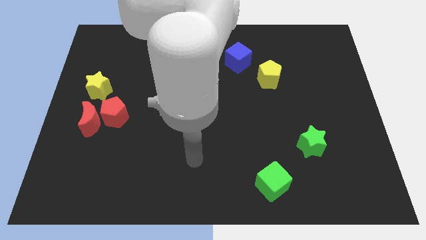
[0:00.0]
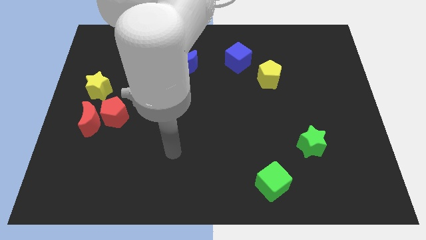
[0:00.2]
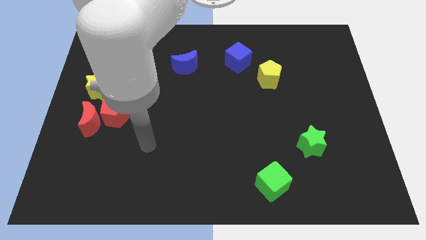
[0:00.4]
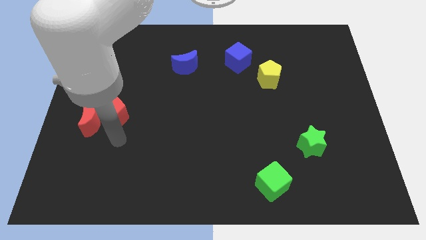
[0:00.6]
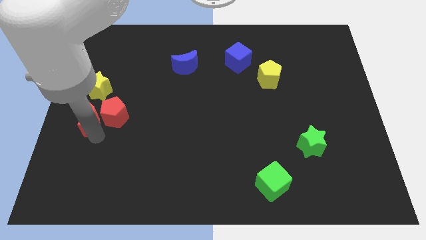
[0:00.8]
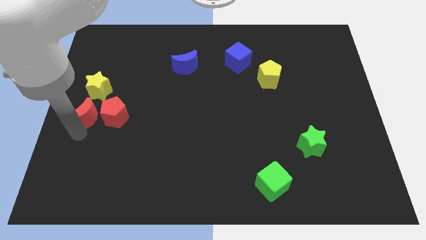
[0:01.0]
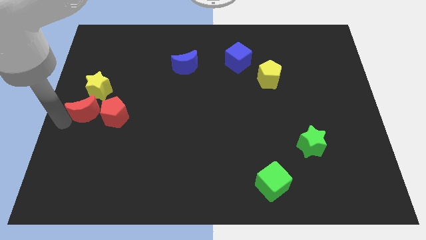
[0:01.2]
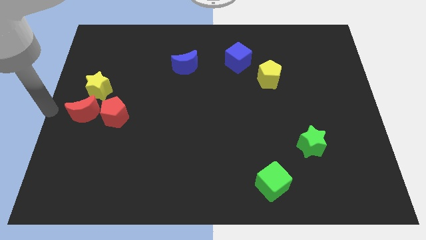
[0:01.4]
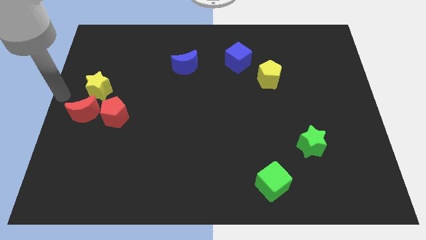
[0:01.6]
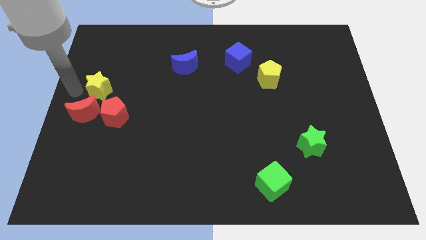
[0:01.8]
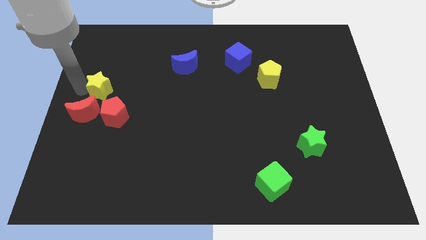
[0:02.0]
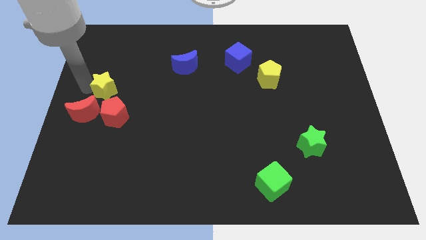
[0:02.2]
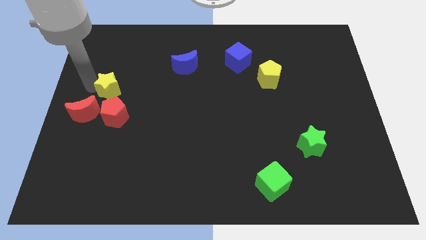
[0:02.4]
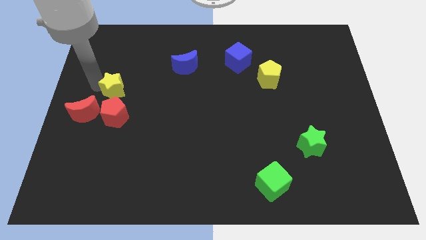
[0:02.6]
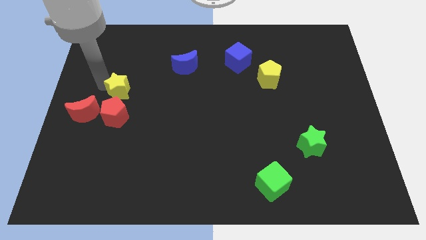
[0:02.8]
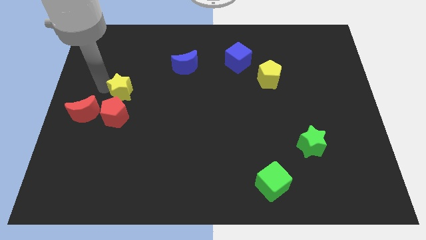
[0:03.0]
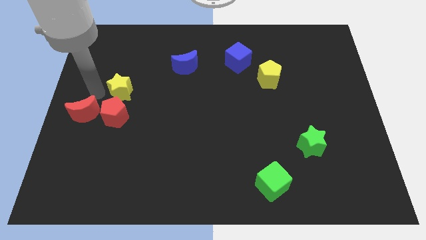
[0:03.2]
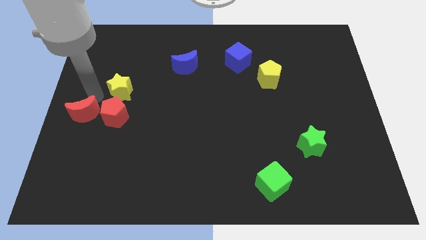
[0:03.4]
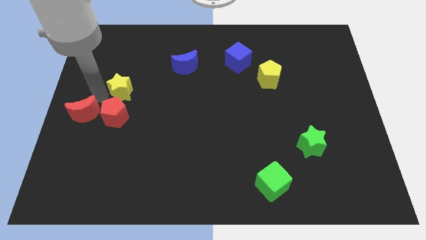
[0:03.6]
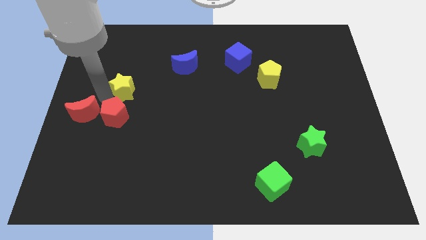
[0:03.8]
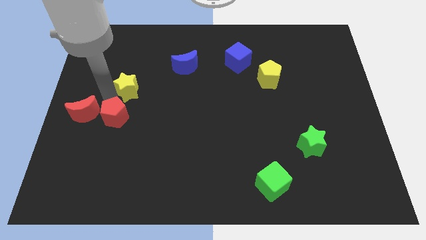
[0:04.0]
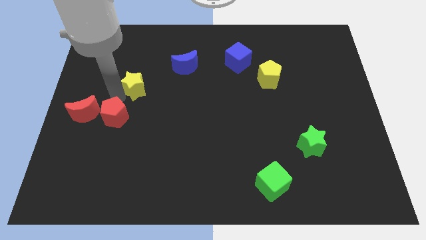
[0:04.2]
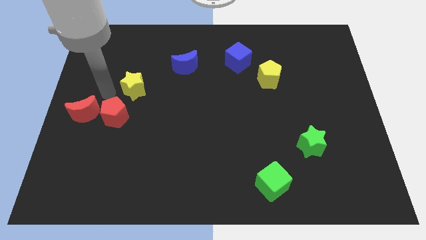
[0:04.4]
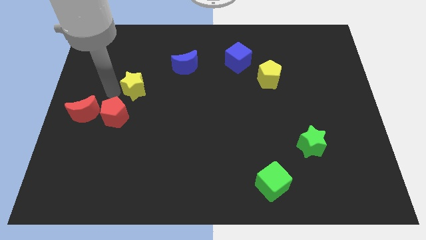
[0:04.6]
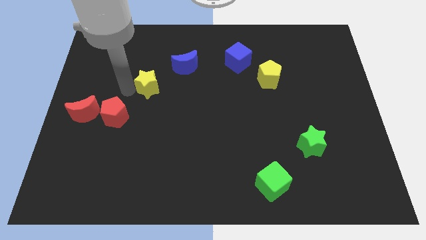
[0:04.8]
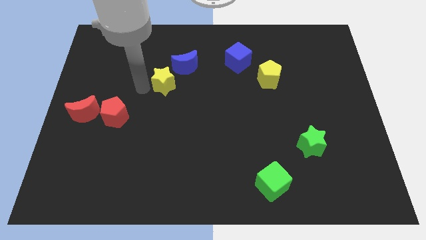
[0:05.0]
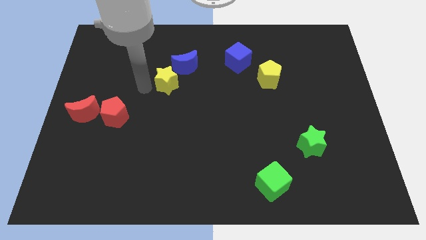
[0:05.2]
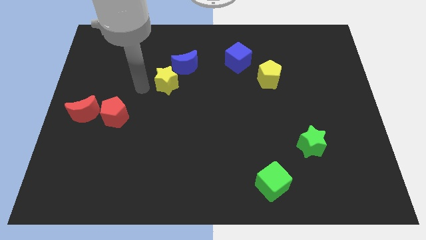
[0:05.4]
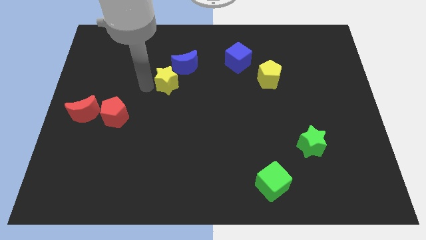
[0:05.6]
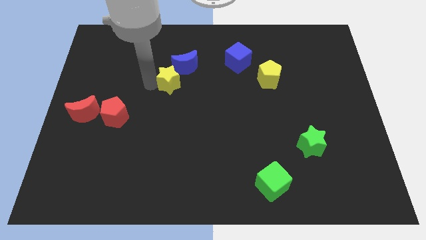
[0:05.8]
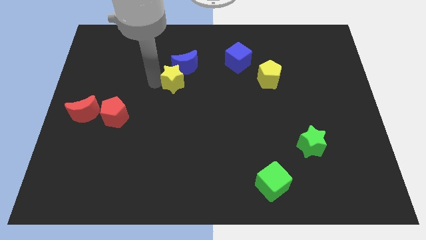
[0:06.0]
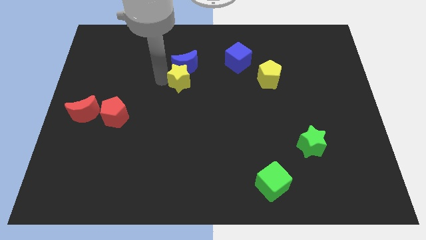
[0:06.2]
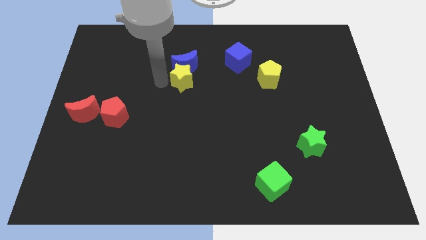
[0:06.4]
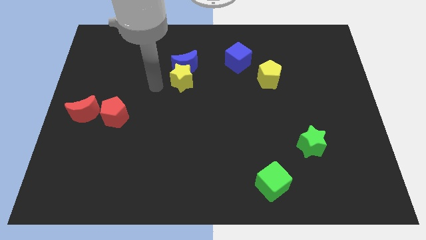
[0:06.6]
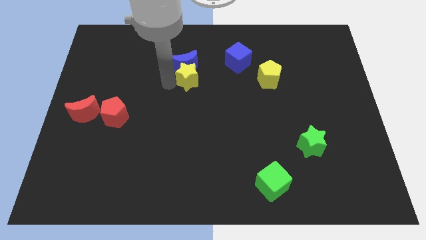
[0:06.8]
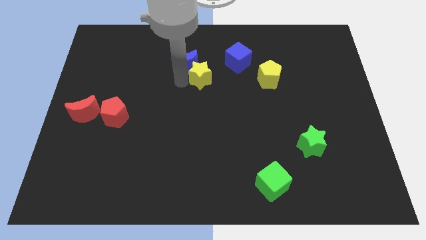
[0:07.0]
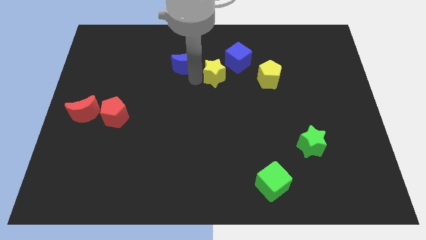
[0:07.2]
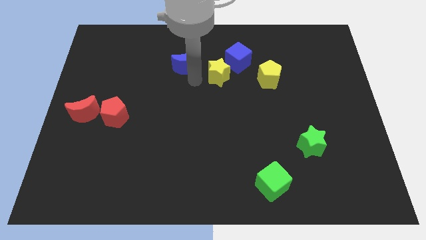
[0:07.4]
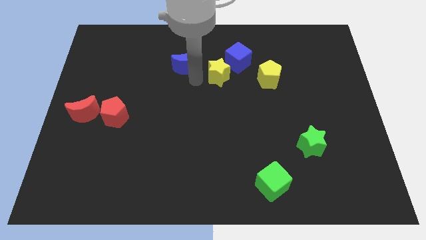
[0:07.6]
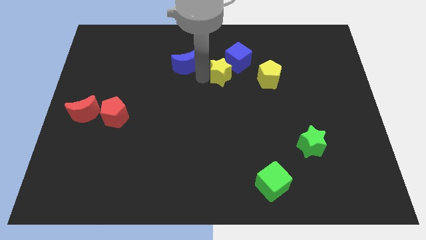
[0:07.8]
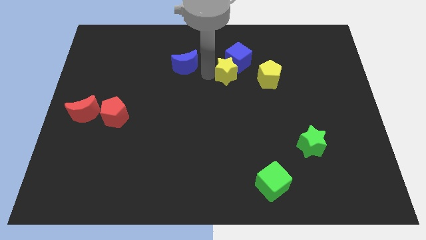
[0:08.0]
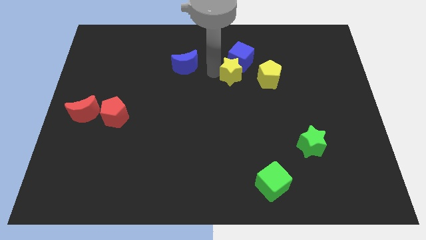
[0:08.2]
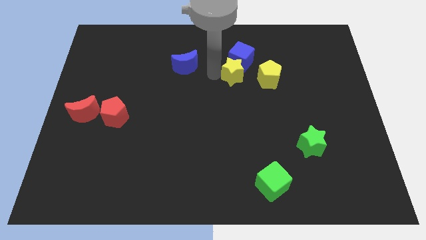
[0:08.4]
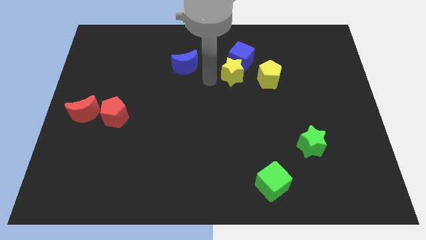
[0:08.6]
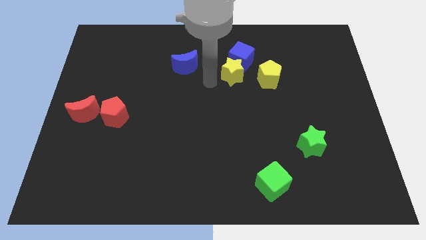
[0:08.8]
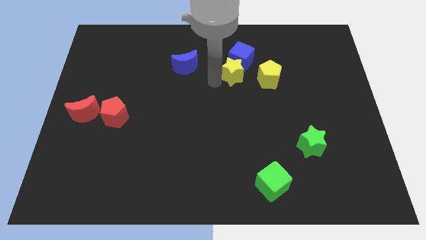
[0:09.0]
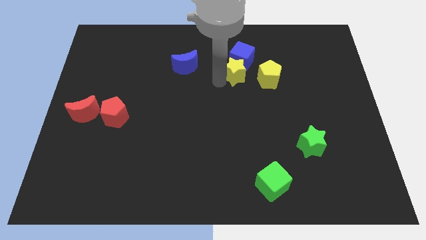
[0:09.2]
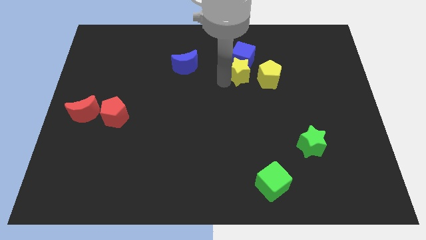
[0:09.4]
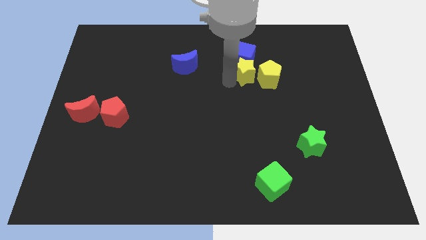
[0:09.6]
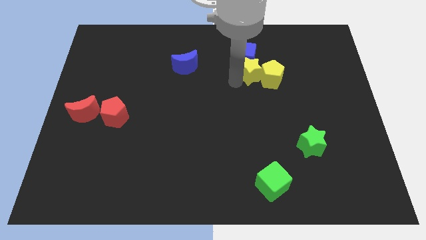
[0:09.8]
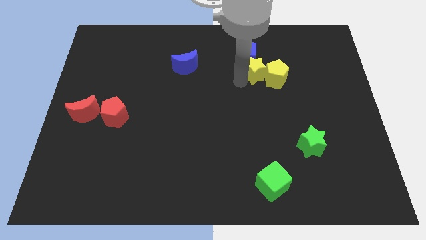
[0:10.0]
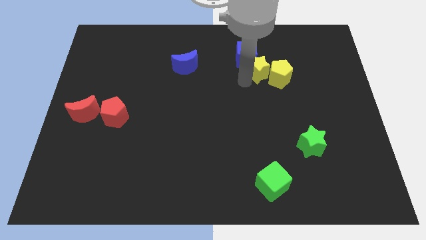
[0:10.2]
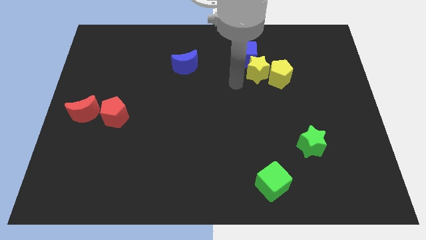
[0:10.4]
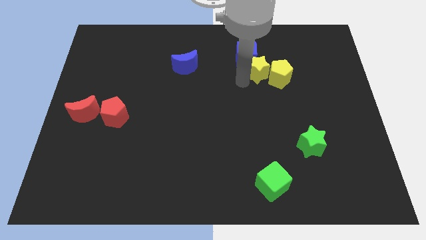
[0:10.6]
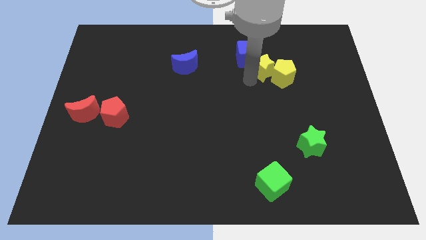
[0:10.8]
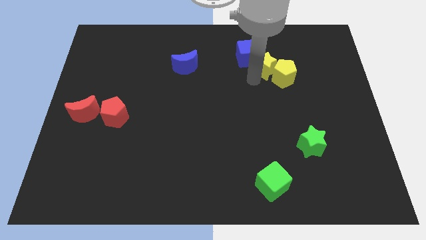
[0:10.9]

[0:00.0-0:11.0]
put the yellow star to the right of the blue cube

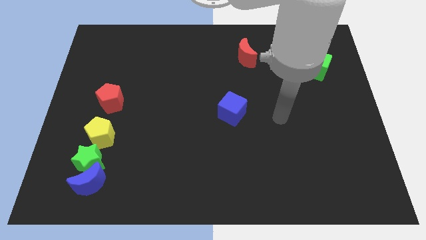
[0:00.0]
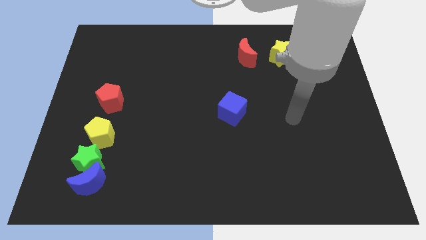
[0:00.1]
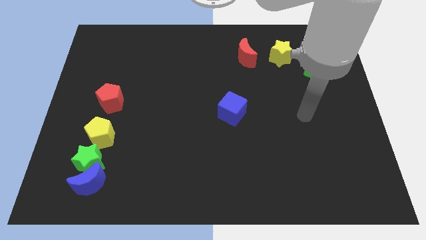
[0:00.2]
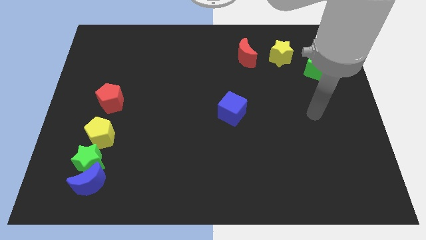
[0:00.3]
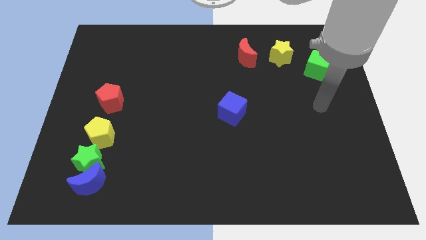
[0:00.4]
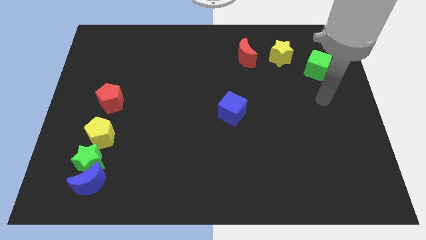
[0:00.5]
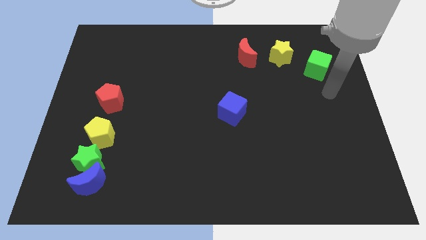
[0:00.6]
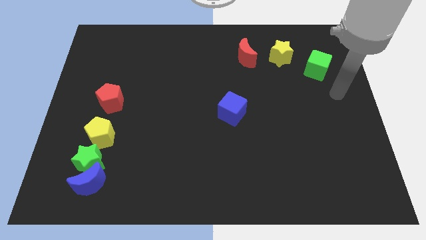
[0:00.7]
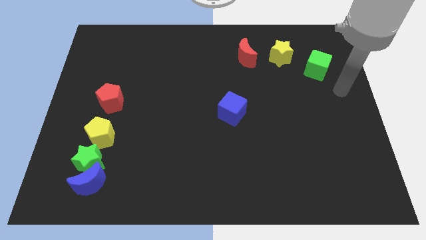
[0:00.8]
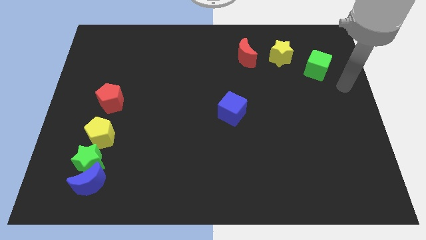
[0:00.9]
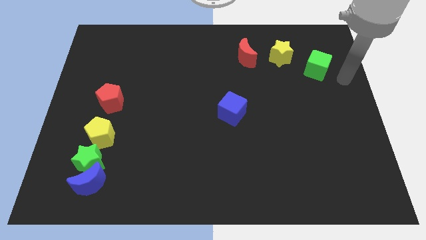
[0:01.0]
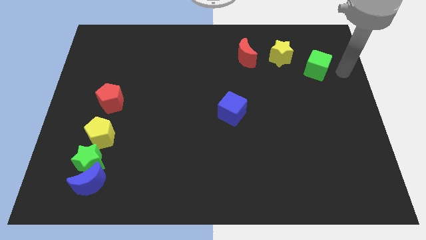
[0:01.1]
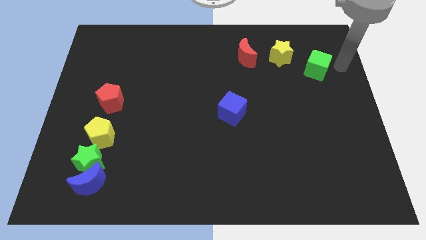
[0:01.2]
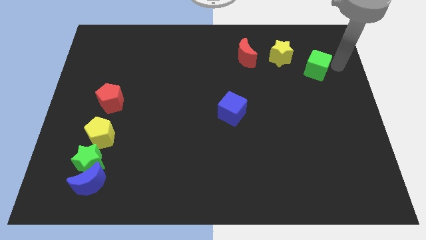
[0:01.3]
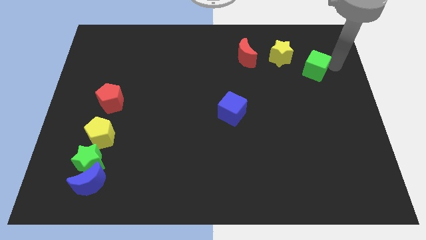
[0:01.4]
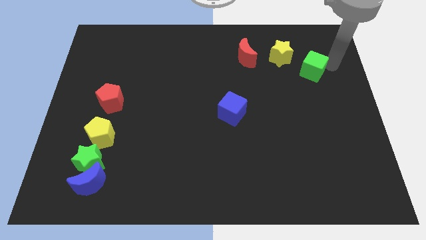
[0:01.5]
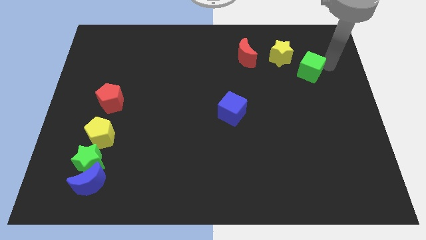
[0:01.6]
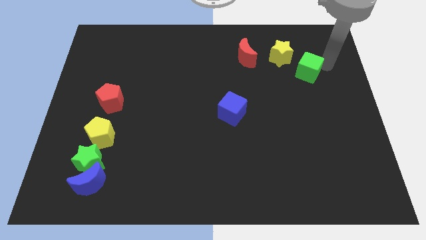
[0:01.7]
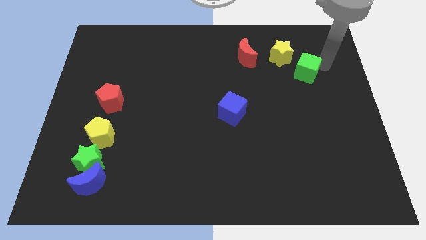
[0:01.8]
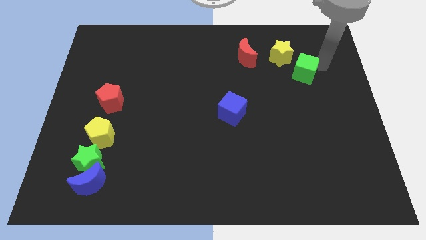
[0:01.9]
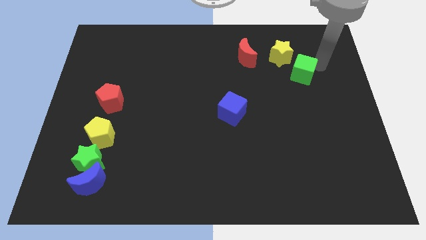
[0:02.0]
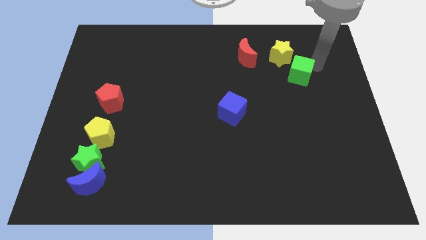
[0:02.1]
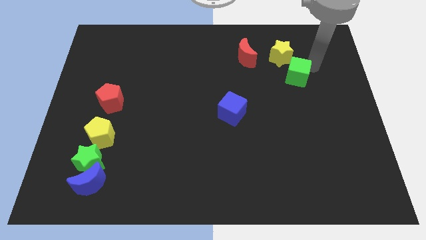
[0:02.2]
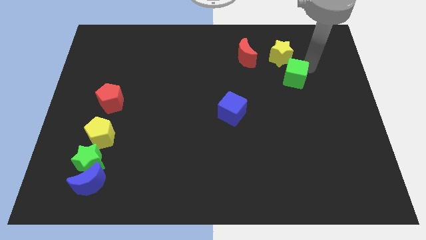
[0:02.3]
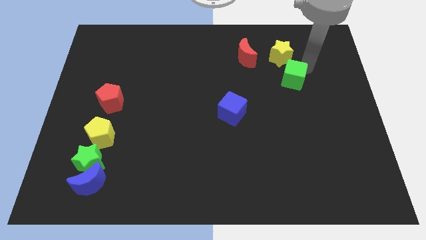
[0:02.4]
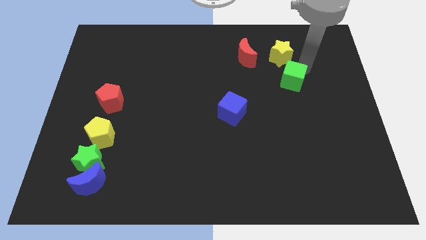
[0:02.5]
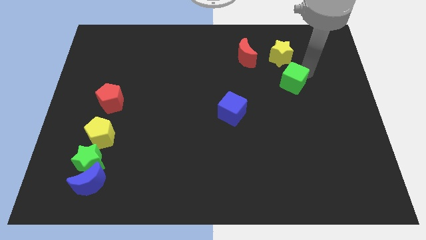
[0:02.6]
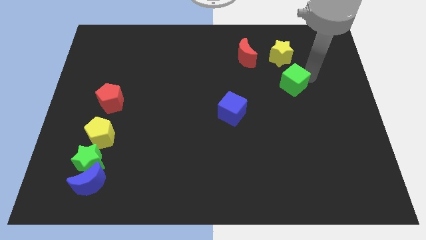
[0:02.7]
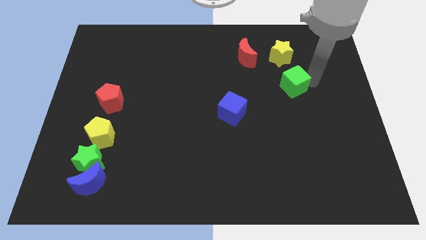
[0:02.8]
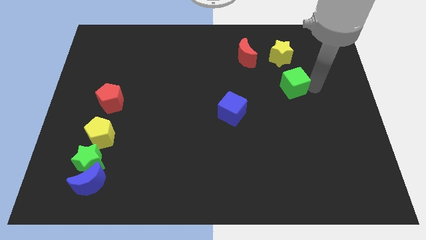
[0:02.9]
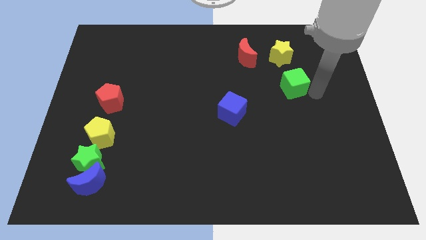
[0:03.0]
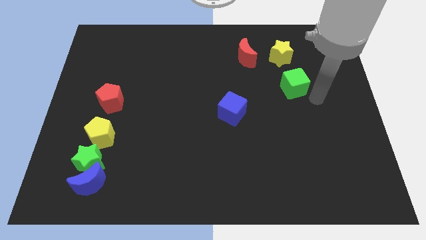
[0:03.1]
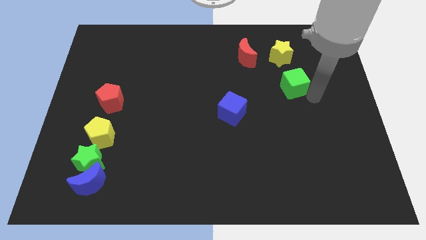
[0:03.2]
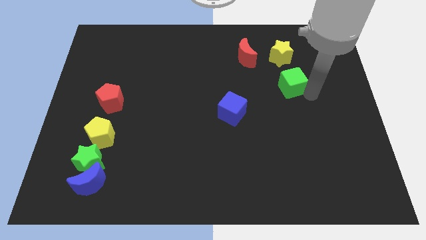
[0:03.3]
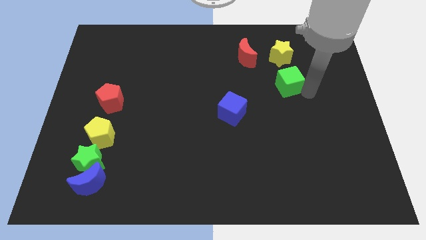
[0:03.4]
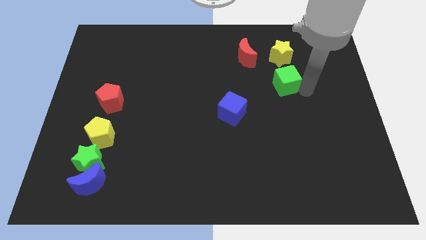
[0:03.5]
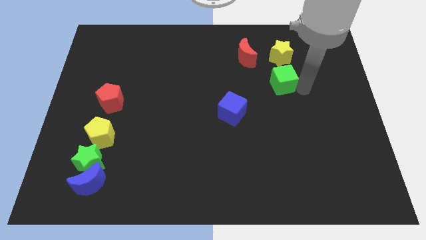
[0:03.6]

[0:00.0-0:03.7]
put the green cube to the bottom right of the red moon
